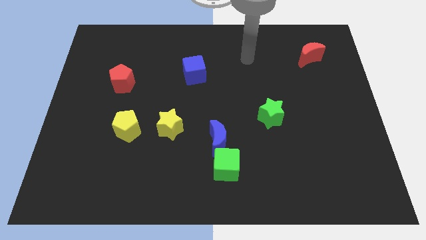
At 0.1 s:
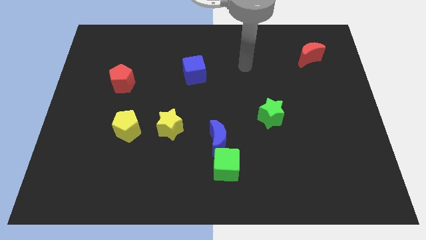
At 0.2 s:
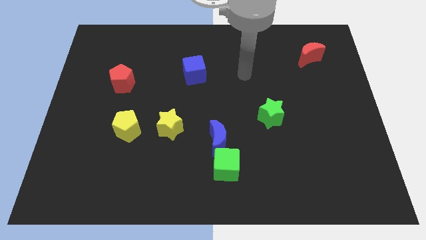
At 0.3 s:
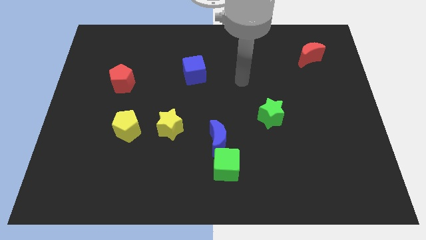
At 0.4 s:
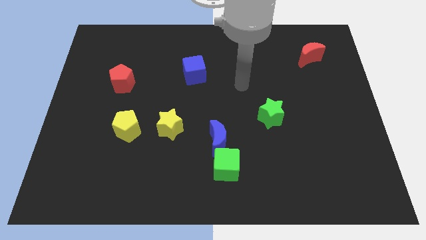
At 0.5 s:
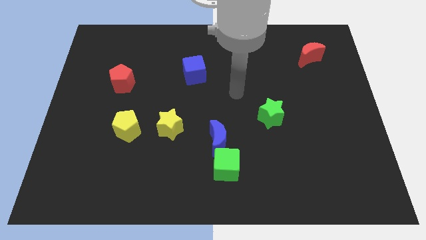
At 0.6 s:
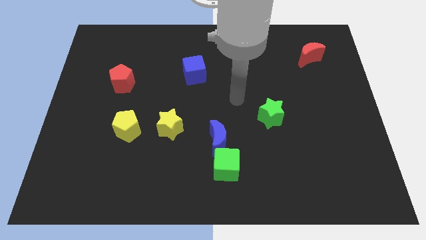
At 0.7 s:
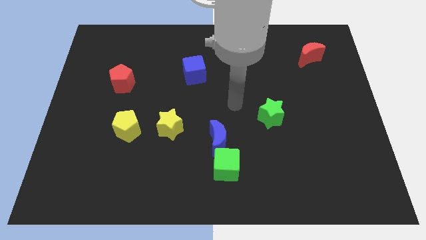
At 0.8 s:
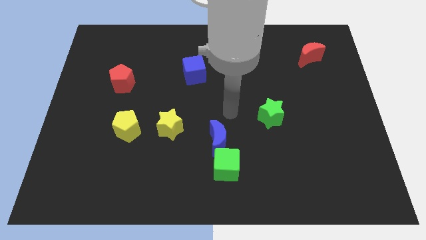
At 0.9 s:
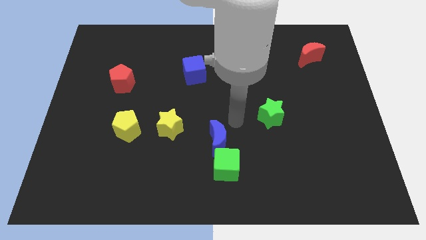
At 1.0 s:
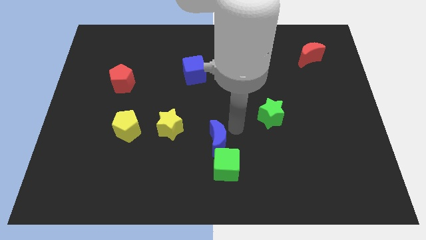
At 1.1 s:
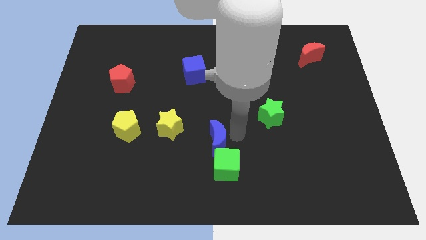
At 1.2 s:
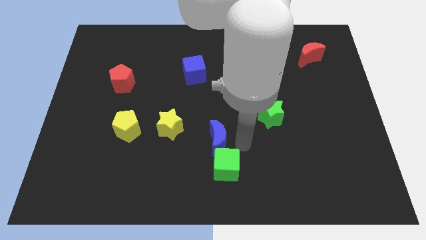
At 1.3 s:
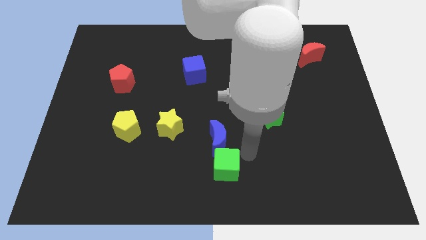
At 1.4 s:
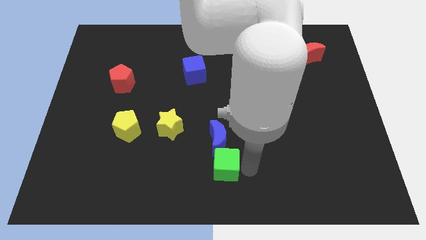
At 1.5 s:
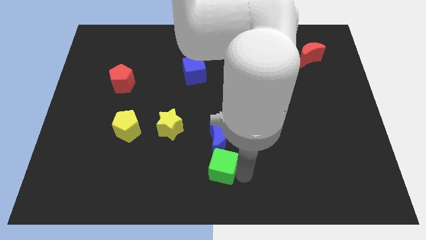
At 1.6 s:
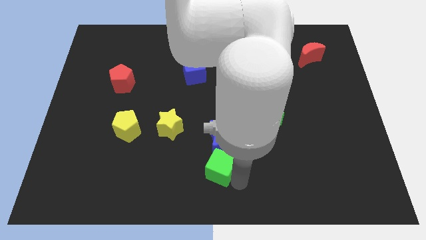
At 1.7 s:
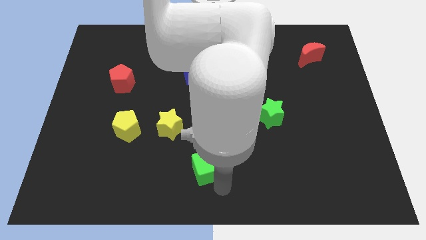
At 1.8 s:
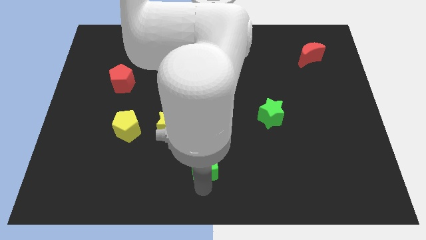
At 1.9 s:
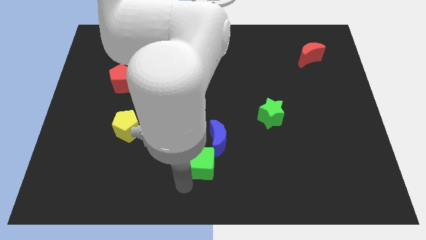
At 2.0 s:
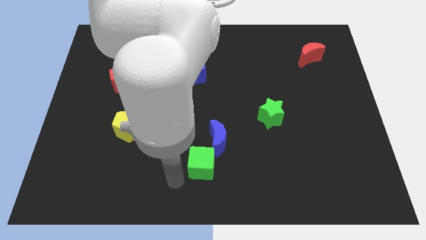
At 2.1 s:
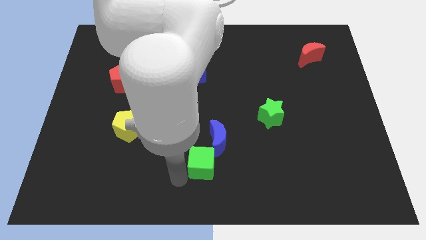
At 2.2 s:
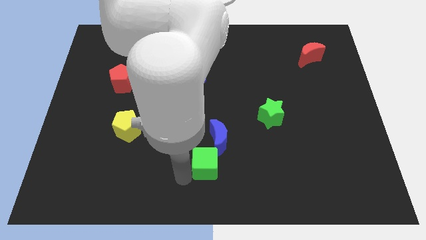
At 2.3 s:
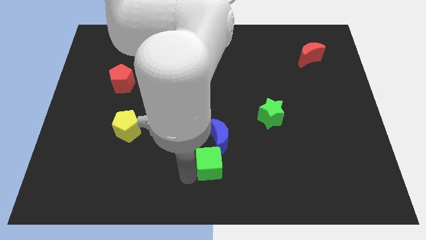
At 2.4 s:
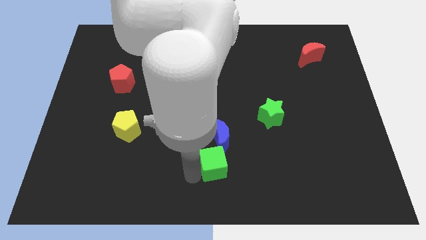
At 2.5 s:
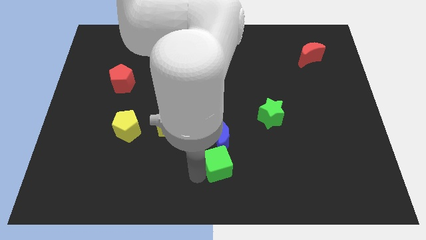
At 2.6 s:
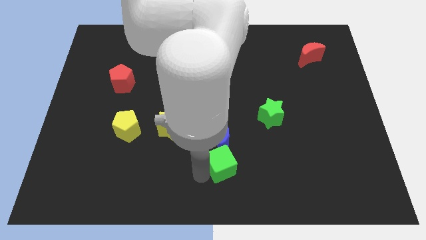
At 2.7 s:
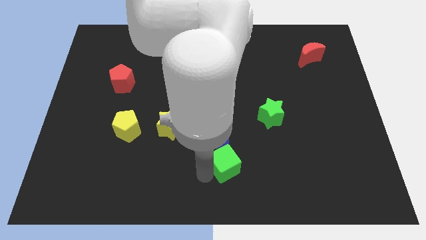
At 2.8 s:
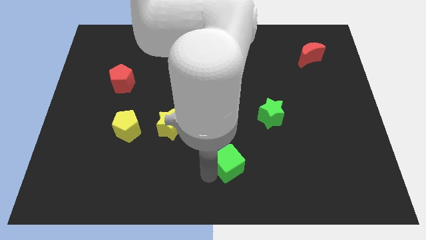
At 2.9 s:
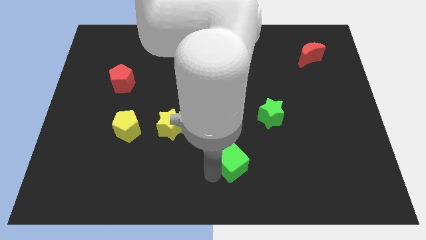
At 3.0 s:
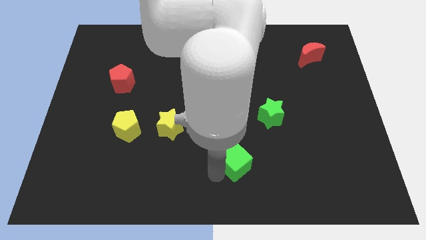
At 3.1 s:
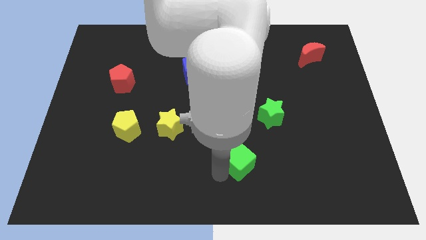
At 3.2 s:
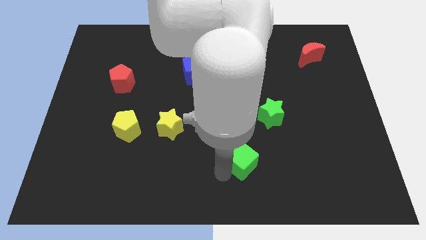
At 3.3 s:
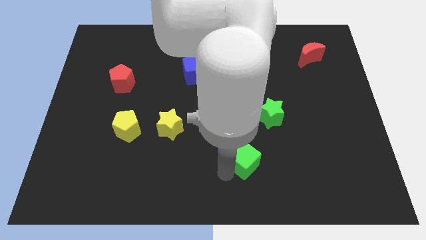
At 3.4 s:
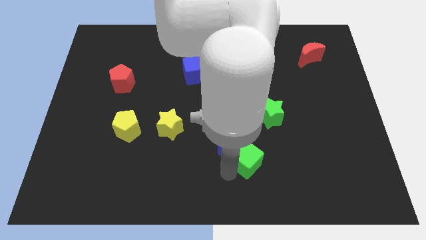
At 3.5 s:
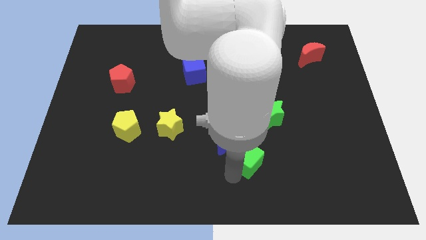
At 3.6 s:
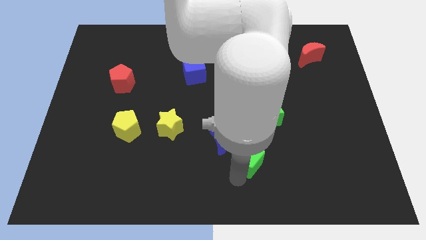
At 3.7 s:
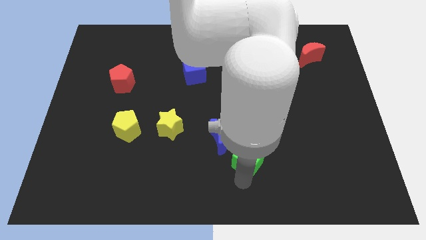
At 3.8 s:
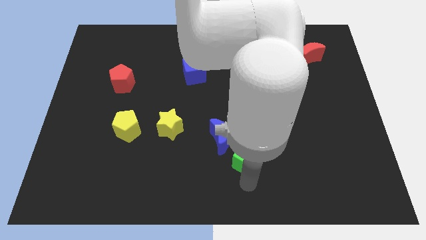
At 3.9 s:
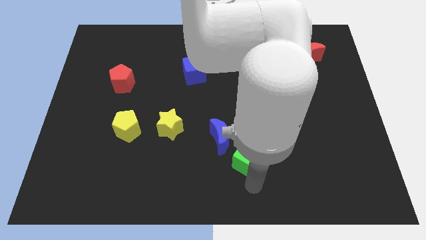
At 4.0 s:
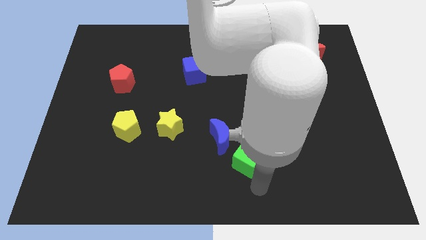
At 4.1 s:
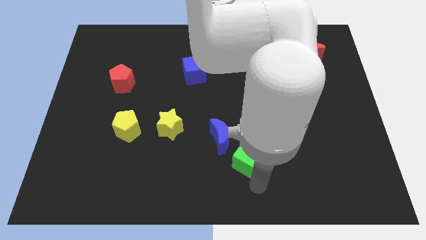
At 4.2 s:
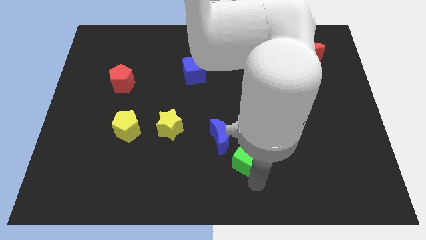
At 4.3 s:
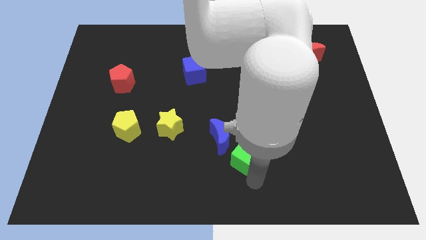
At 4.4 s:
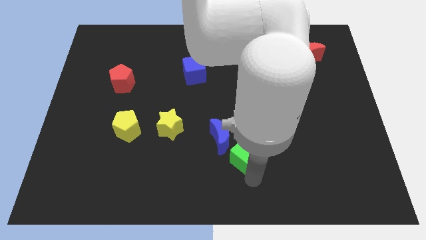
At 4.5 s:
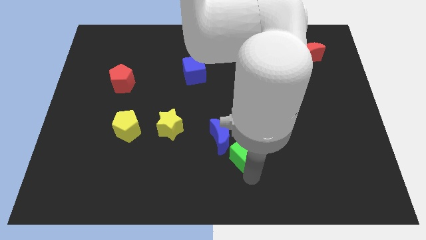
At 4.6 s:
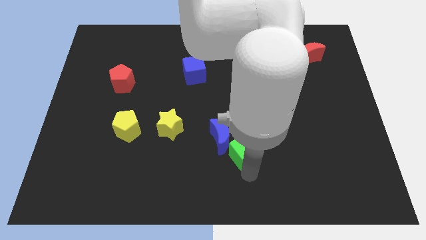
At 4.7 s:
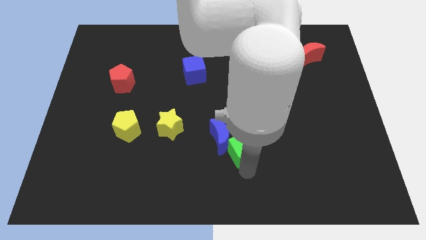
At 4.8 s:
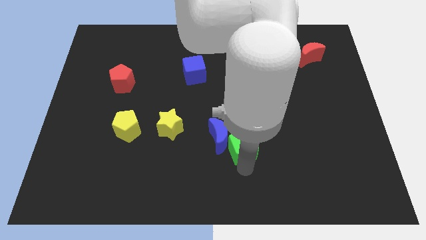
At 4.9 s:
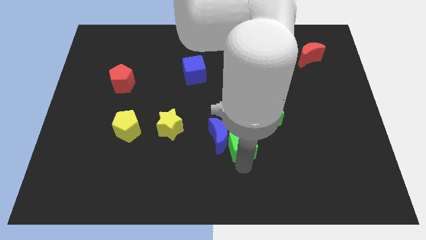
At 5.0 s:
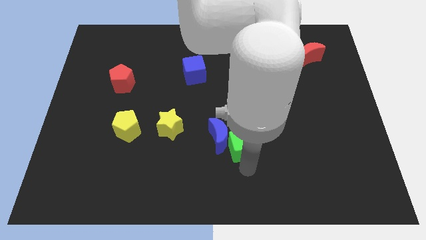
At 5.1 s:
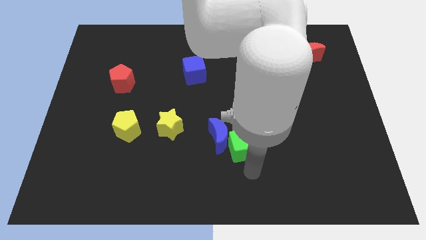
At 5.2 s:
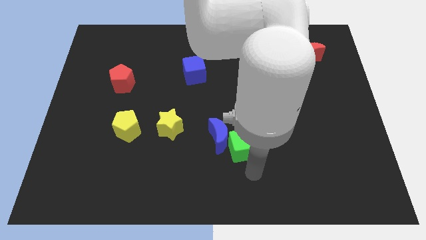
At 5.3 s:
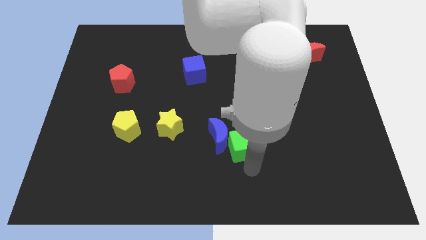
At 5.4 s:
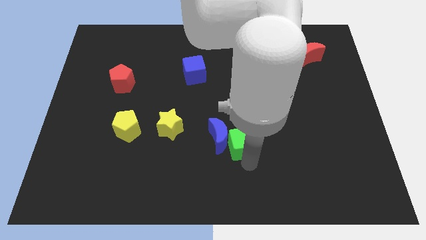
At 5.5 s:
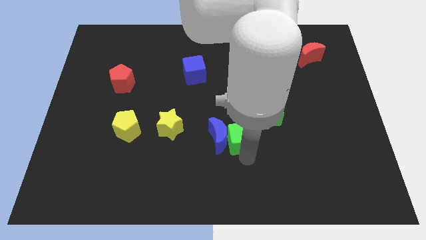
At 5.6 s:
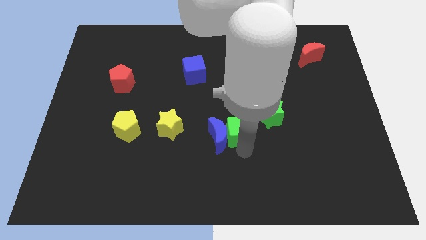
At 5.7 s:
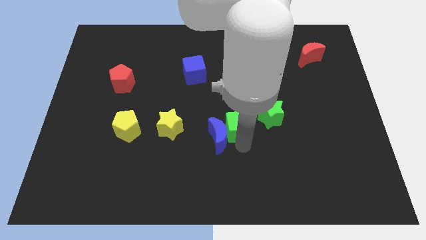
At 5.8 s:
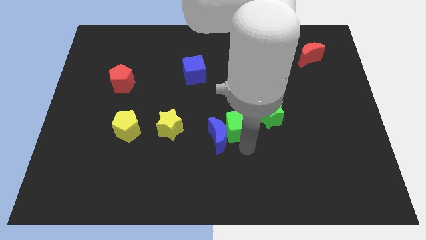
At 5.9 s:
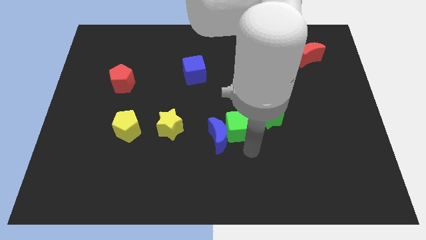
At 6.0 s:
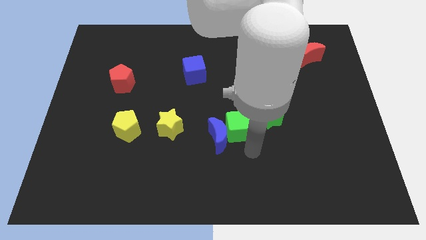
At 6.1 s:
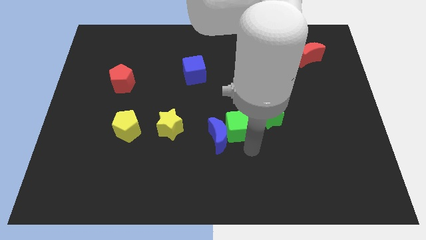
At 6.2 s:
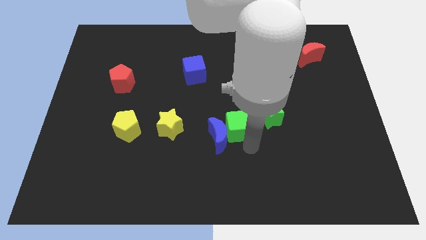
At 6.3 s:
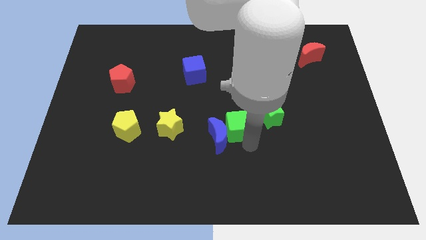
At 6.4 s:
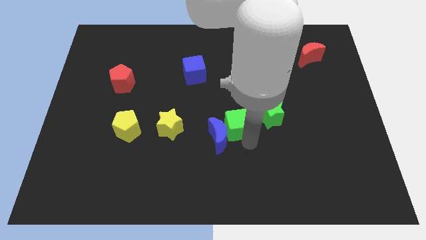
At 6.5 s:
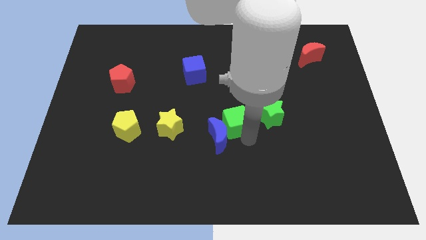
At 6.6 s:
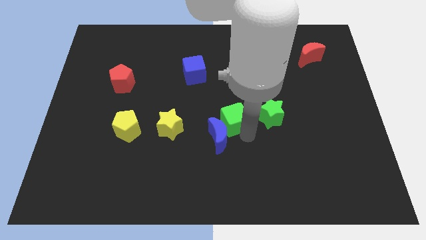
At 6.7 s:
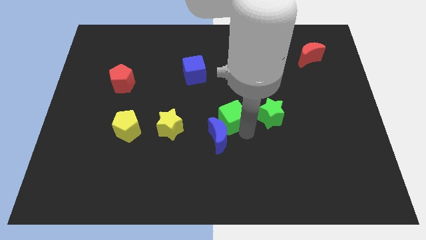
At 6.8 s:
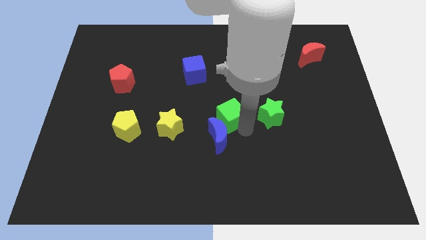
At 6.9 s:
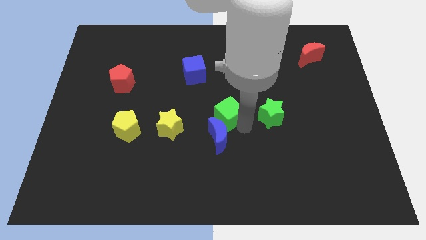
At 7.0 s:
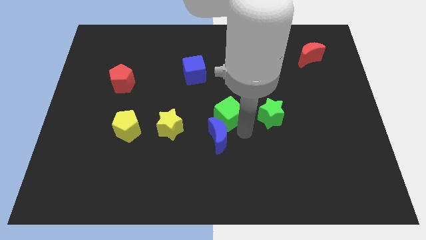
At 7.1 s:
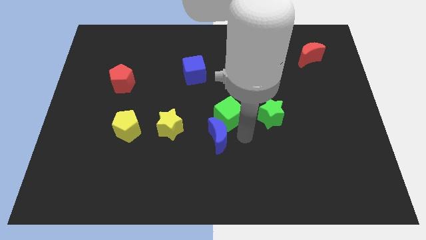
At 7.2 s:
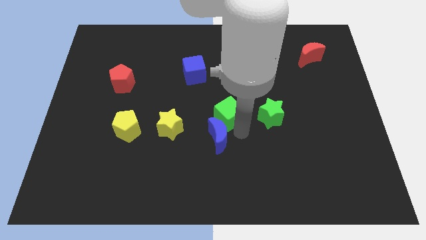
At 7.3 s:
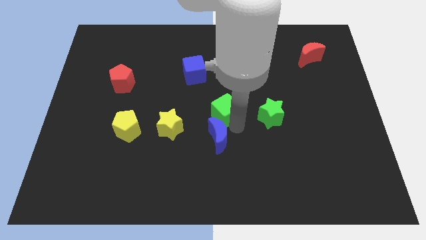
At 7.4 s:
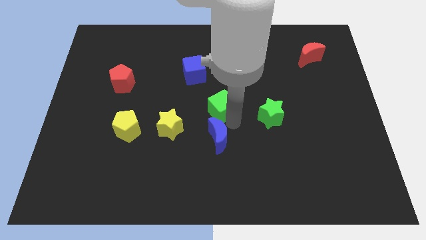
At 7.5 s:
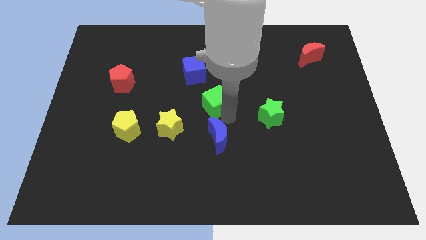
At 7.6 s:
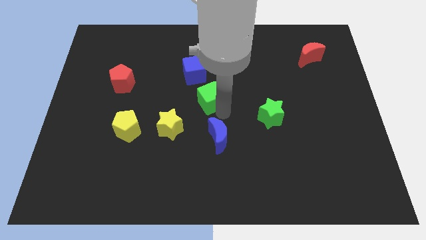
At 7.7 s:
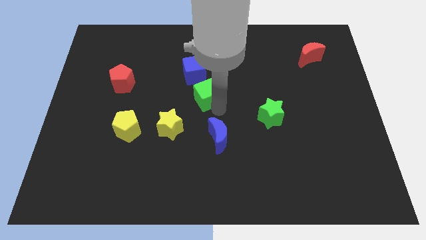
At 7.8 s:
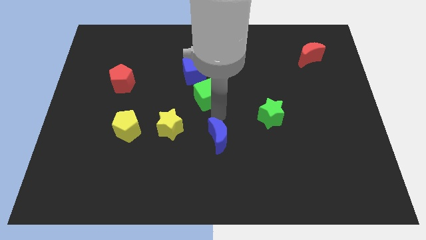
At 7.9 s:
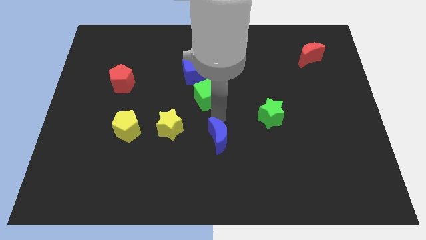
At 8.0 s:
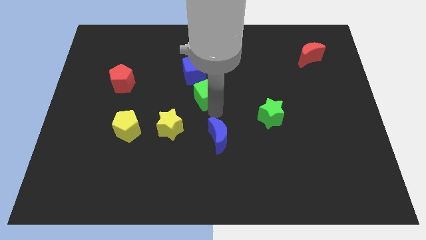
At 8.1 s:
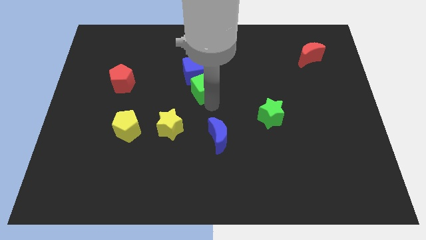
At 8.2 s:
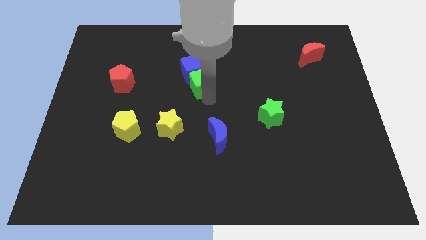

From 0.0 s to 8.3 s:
move the green cube to the blue cube
